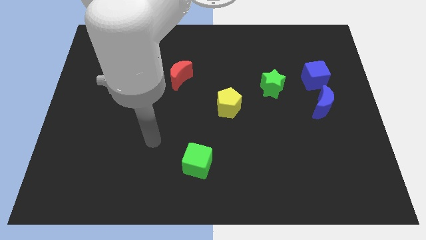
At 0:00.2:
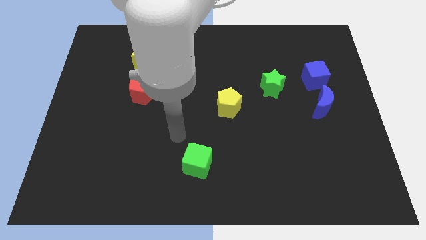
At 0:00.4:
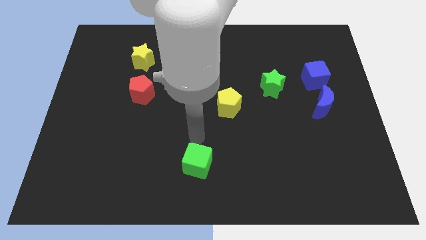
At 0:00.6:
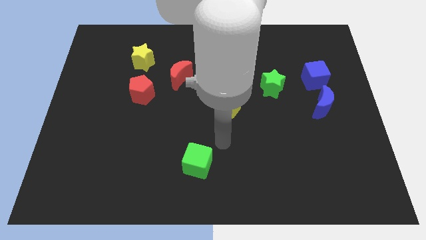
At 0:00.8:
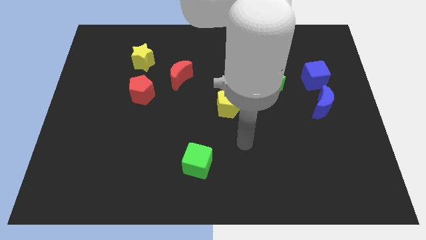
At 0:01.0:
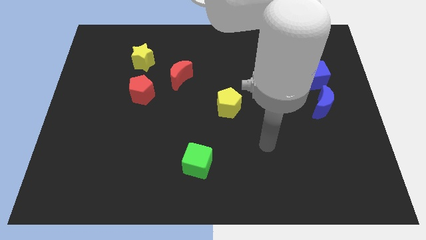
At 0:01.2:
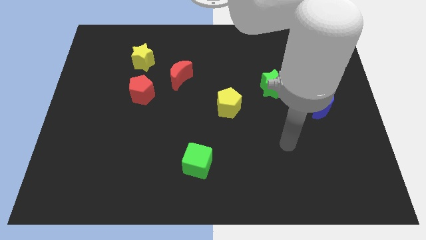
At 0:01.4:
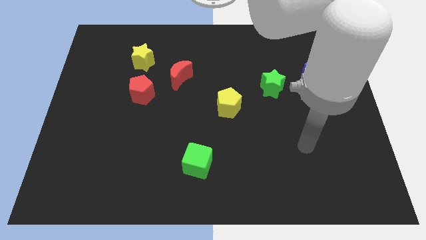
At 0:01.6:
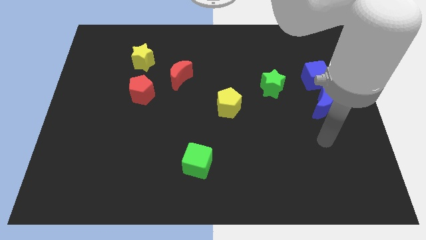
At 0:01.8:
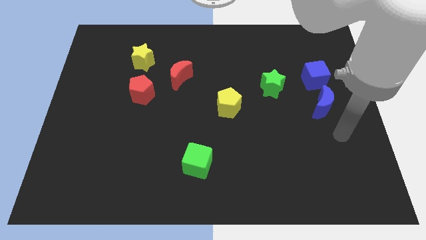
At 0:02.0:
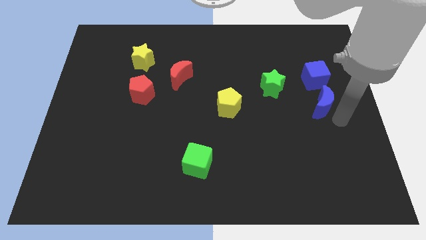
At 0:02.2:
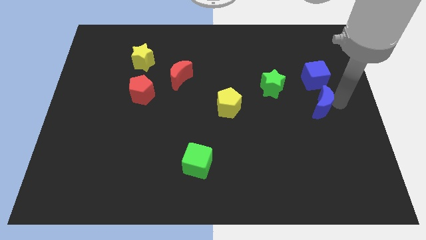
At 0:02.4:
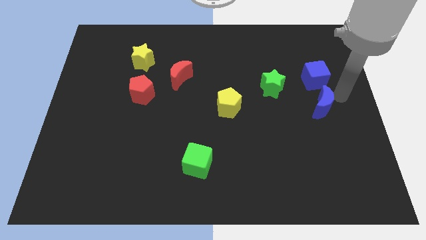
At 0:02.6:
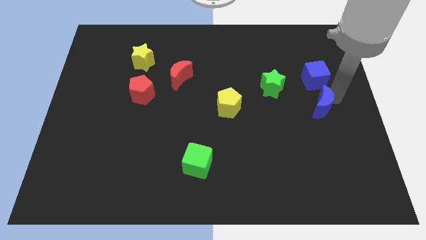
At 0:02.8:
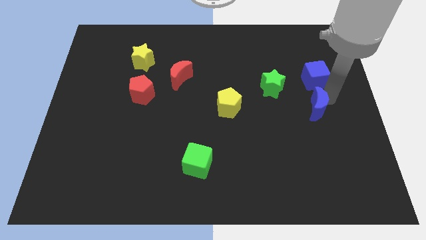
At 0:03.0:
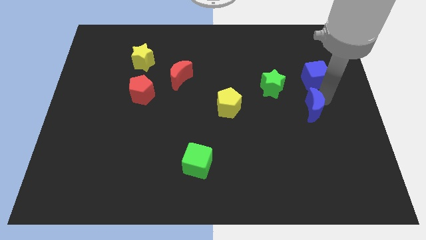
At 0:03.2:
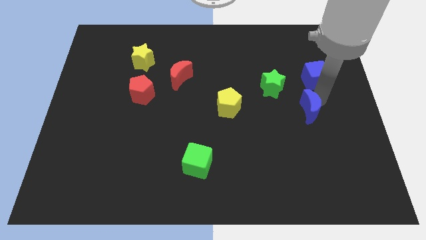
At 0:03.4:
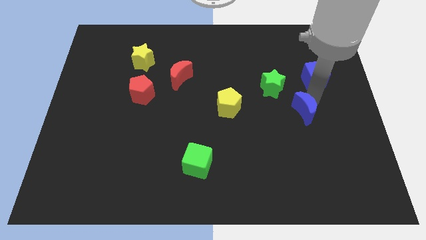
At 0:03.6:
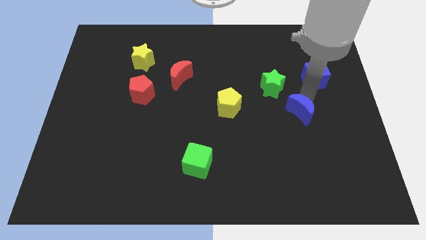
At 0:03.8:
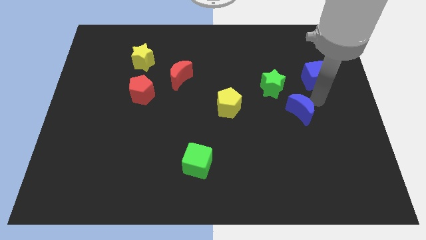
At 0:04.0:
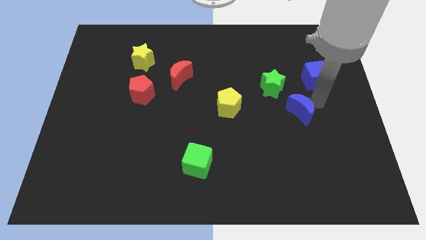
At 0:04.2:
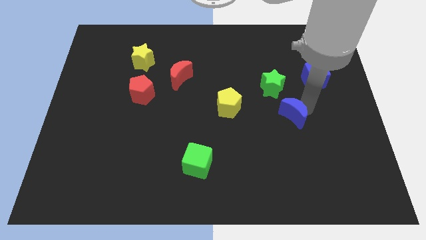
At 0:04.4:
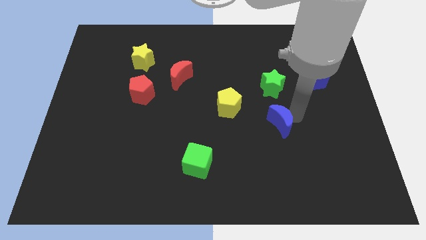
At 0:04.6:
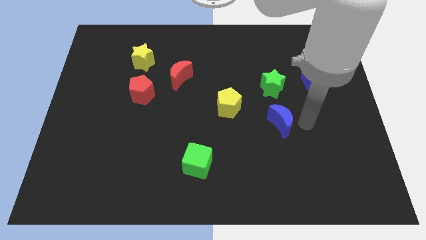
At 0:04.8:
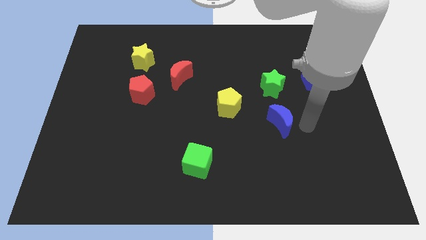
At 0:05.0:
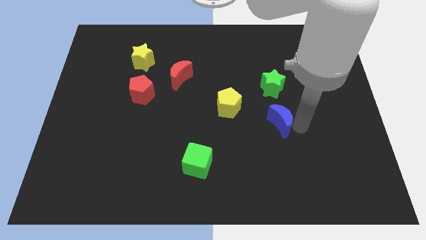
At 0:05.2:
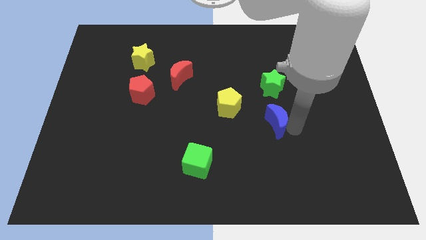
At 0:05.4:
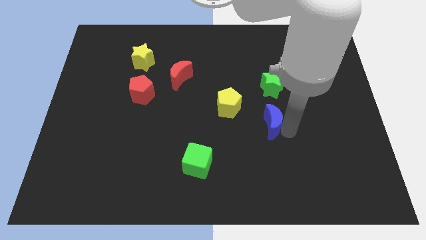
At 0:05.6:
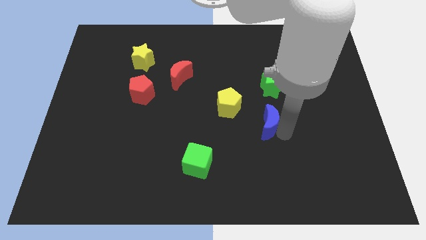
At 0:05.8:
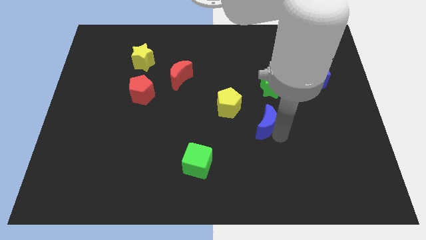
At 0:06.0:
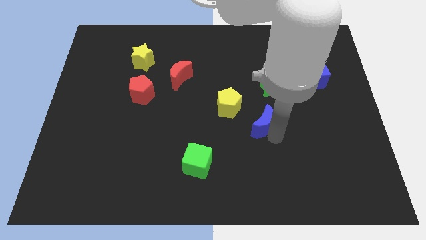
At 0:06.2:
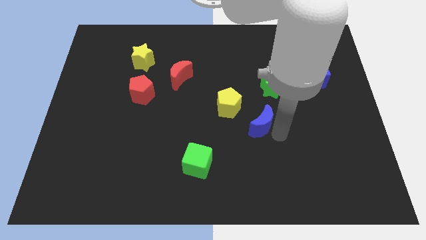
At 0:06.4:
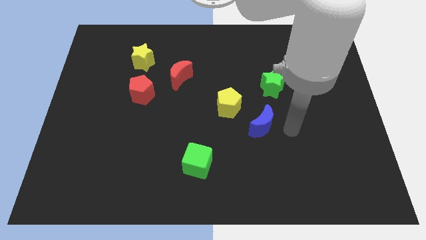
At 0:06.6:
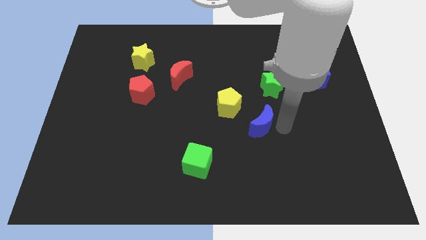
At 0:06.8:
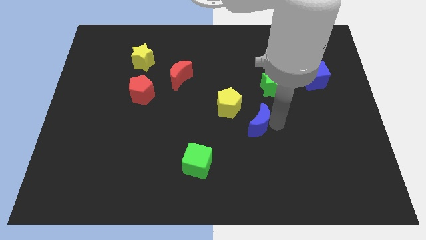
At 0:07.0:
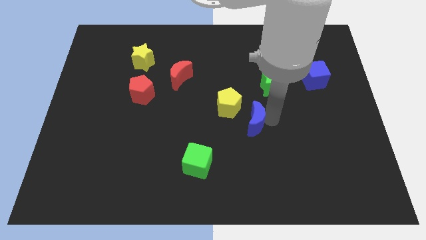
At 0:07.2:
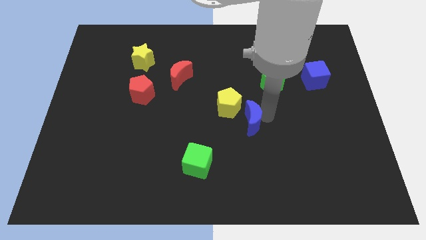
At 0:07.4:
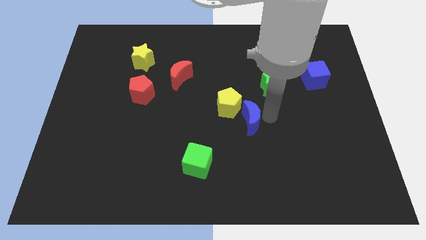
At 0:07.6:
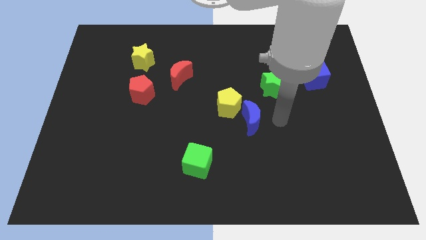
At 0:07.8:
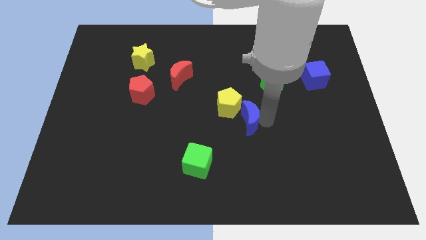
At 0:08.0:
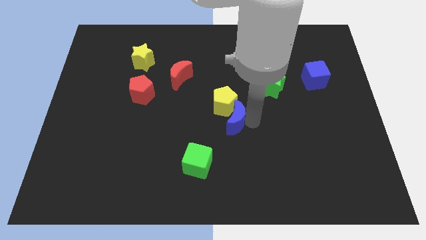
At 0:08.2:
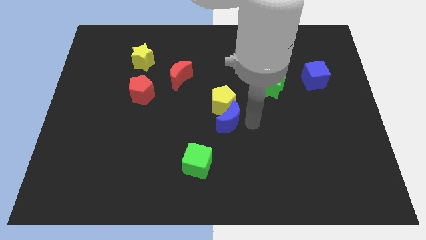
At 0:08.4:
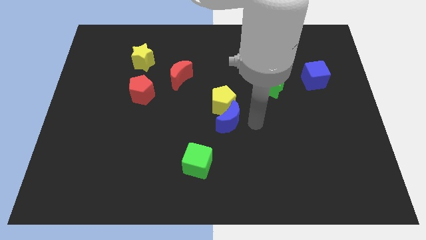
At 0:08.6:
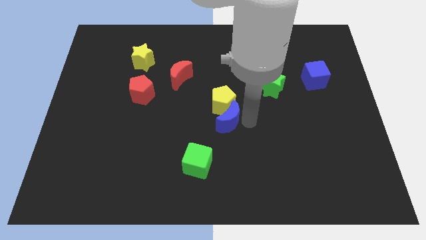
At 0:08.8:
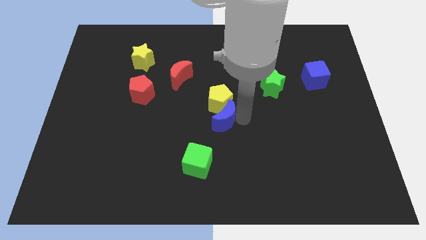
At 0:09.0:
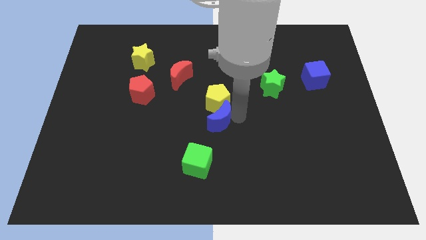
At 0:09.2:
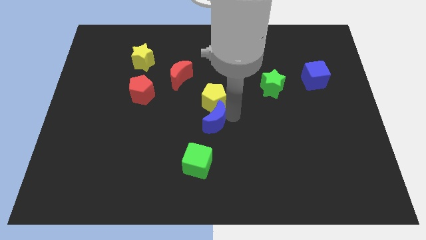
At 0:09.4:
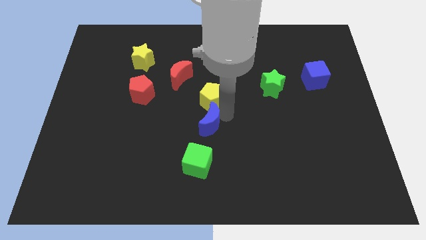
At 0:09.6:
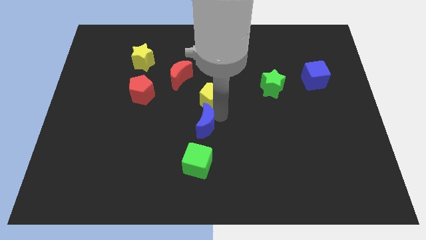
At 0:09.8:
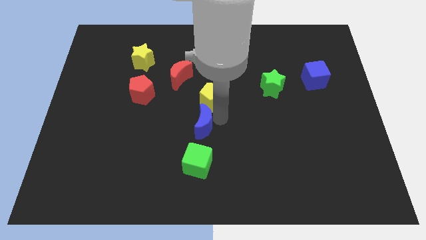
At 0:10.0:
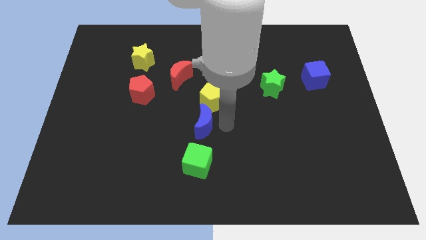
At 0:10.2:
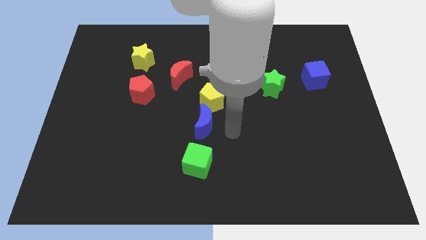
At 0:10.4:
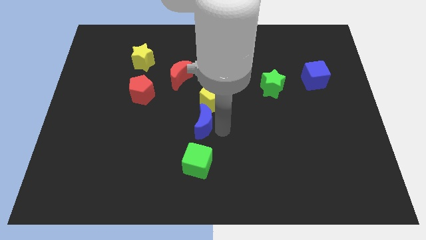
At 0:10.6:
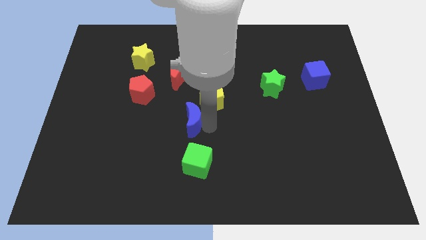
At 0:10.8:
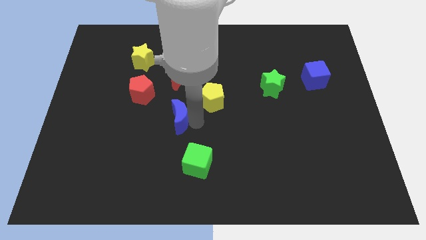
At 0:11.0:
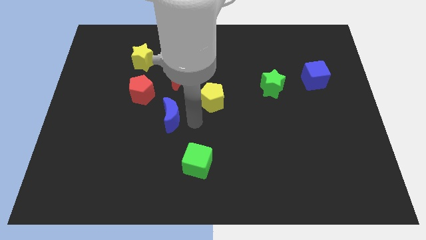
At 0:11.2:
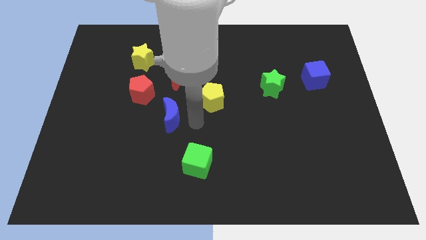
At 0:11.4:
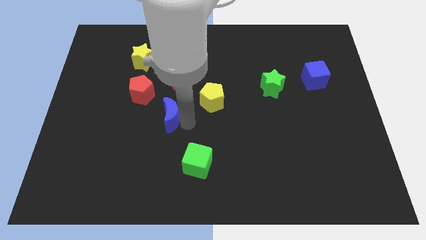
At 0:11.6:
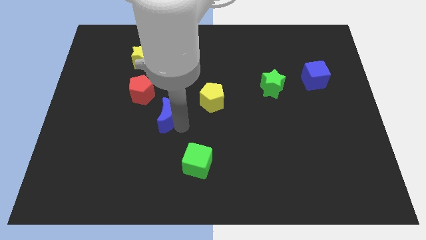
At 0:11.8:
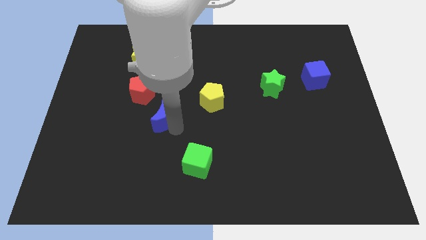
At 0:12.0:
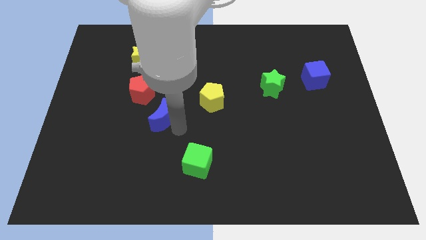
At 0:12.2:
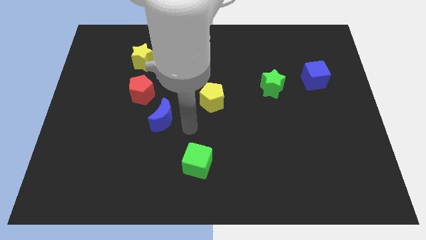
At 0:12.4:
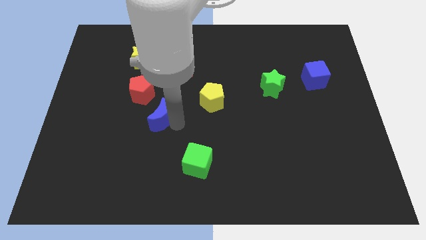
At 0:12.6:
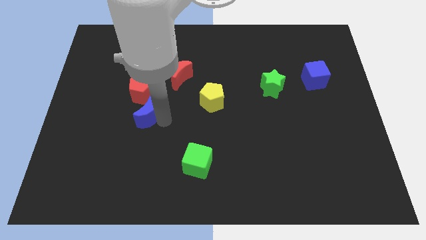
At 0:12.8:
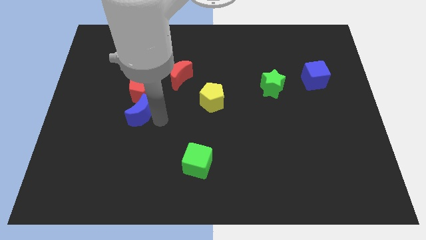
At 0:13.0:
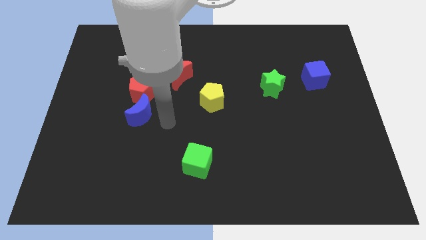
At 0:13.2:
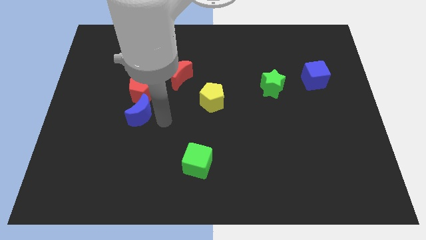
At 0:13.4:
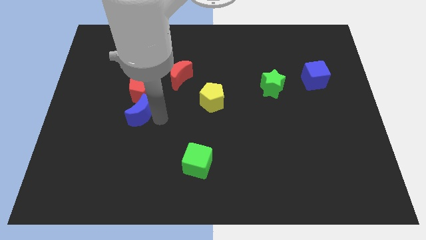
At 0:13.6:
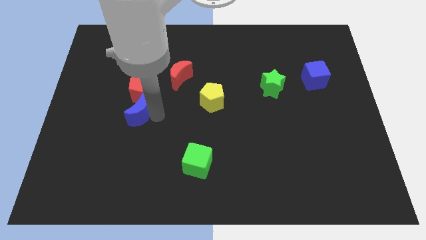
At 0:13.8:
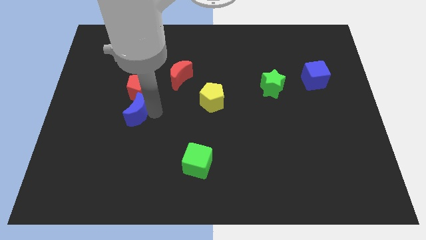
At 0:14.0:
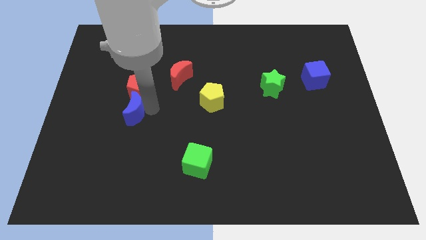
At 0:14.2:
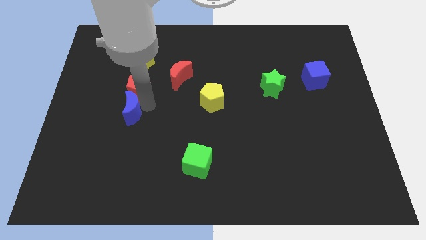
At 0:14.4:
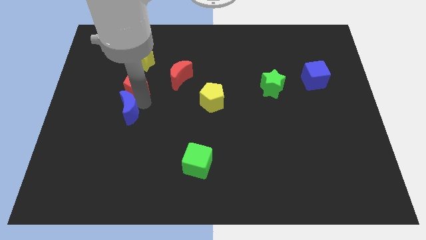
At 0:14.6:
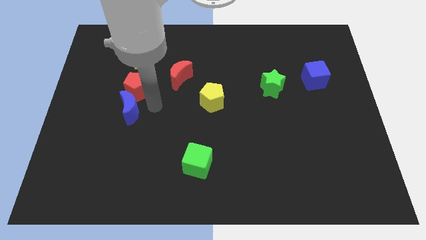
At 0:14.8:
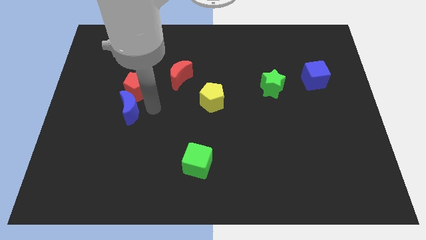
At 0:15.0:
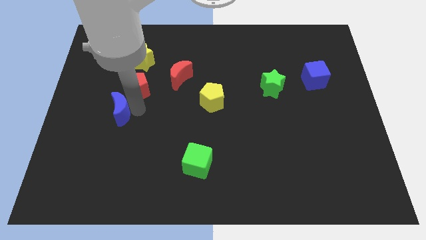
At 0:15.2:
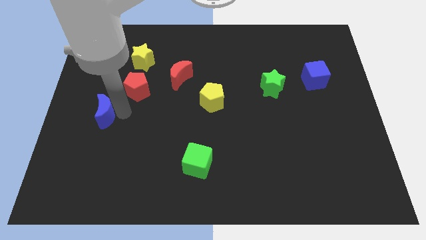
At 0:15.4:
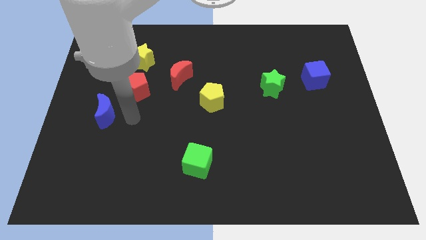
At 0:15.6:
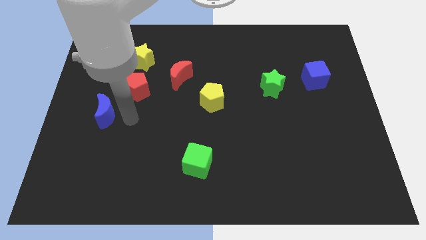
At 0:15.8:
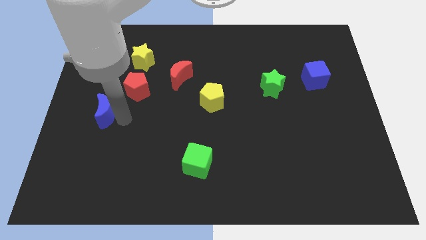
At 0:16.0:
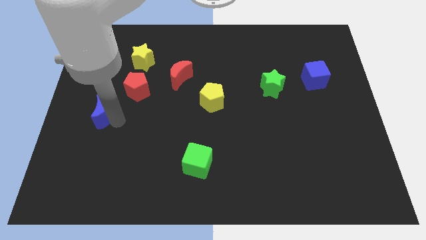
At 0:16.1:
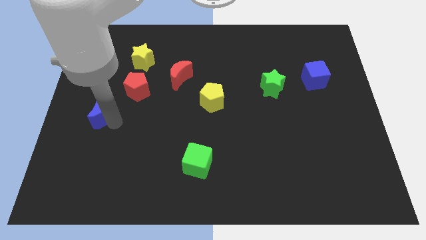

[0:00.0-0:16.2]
put the blue moon to the left side
